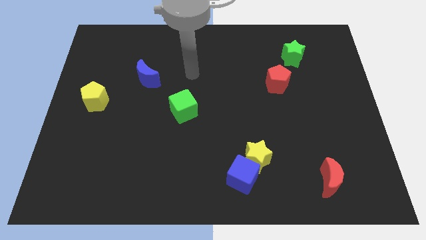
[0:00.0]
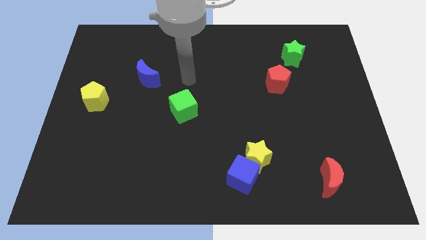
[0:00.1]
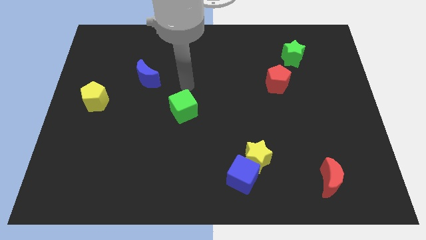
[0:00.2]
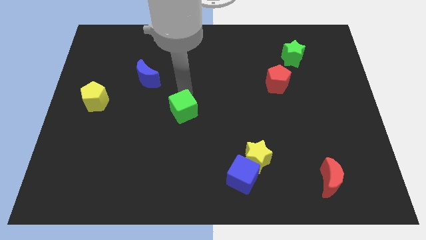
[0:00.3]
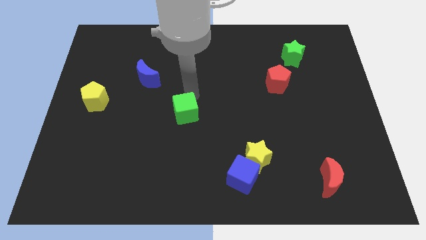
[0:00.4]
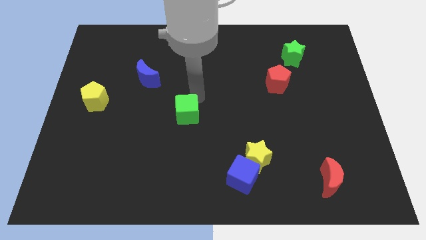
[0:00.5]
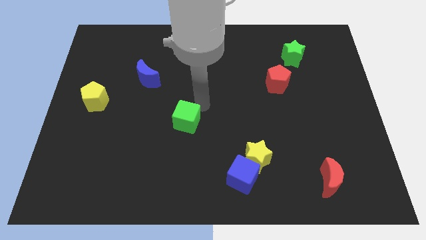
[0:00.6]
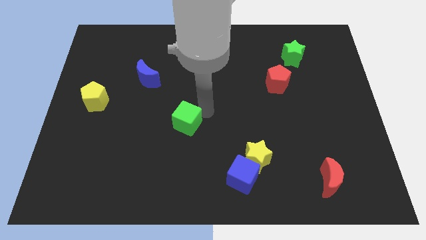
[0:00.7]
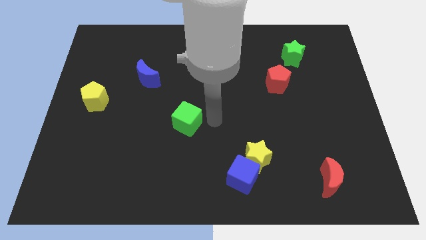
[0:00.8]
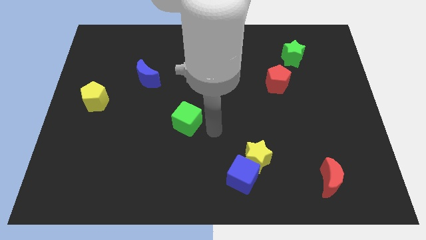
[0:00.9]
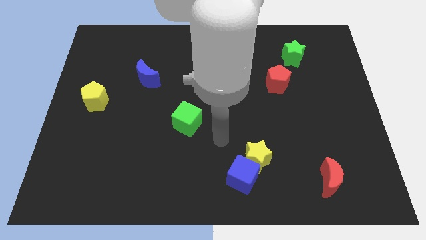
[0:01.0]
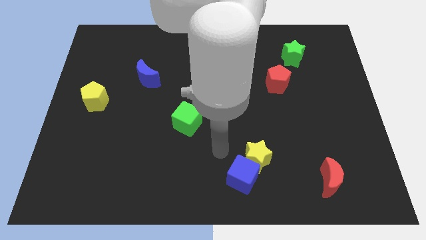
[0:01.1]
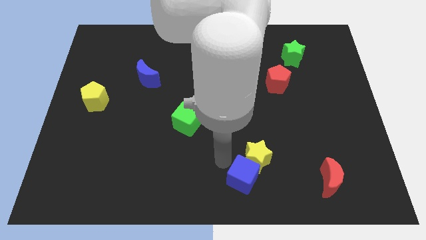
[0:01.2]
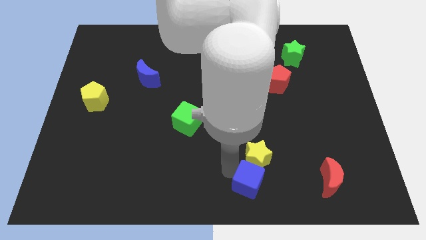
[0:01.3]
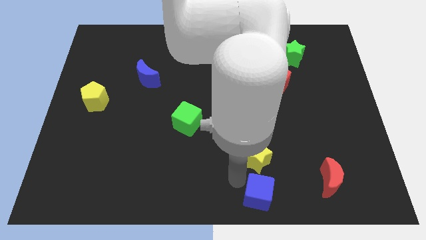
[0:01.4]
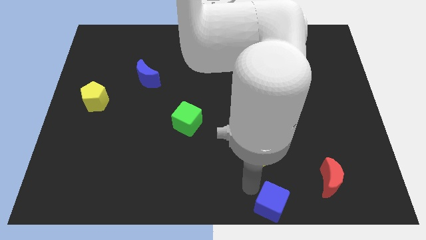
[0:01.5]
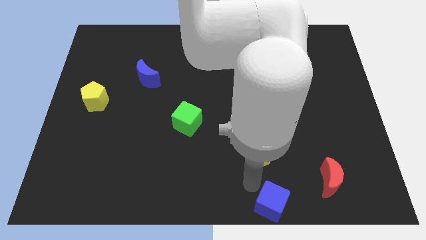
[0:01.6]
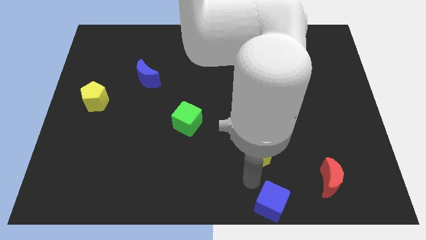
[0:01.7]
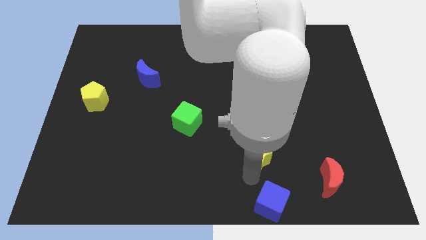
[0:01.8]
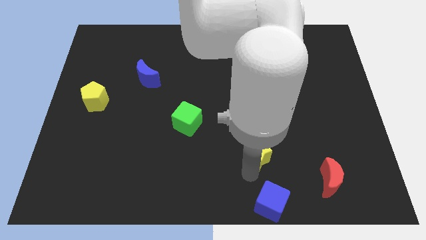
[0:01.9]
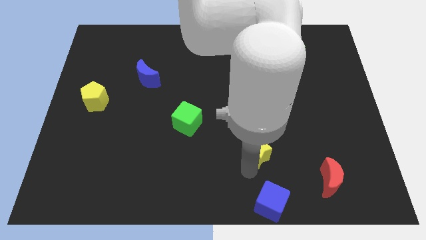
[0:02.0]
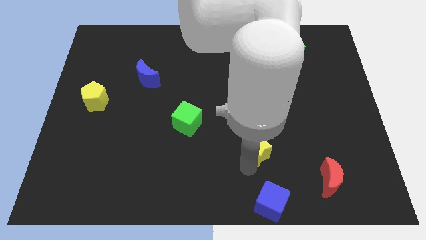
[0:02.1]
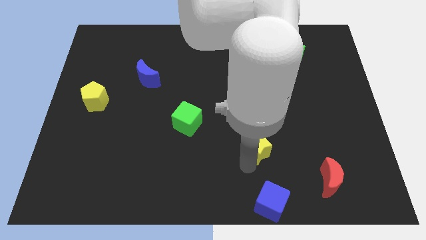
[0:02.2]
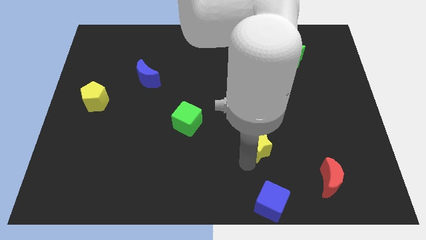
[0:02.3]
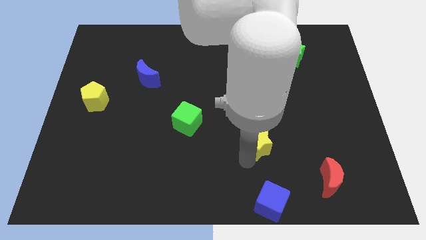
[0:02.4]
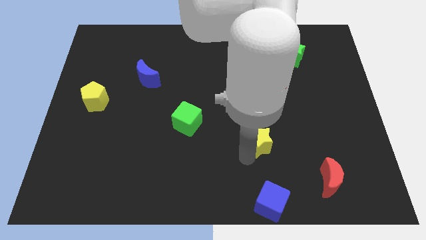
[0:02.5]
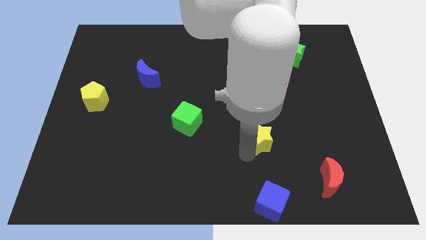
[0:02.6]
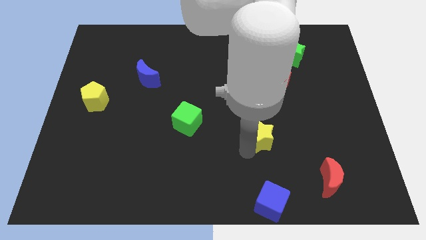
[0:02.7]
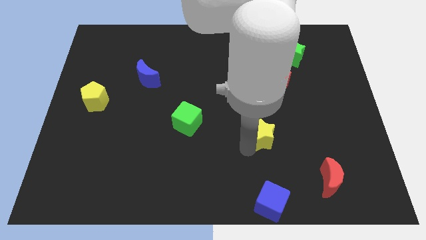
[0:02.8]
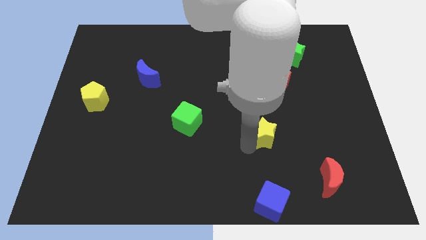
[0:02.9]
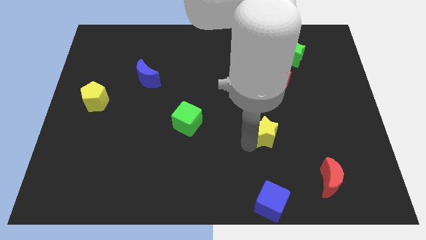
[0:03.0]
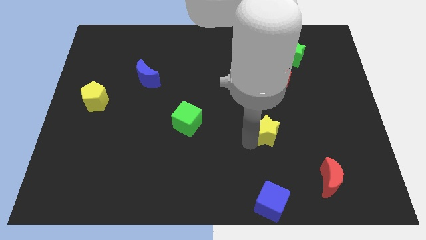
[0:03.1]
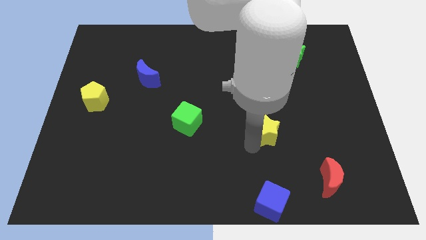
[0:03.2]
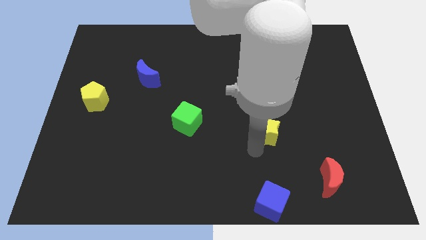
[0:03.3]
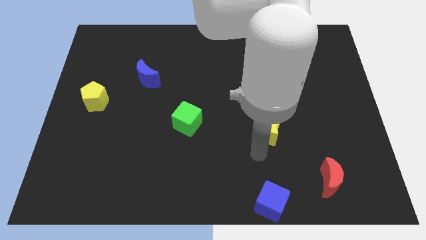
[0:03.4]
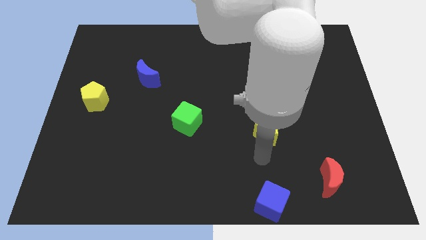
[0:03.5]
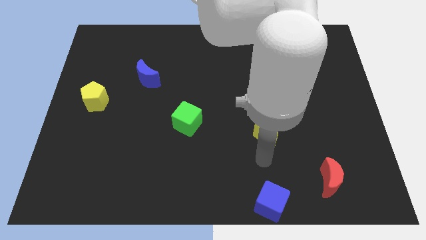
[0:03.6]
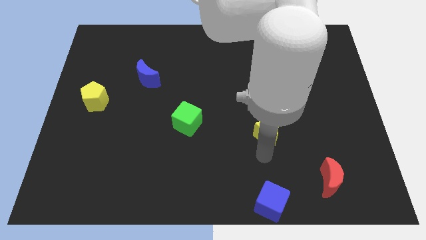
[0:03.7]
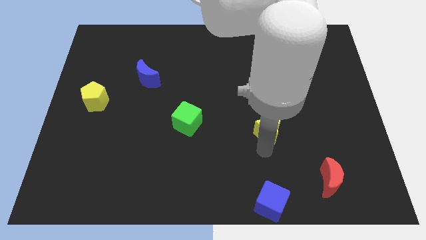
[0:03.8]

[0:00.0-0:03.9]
slightly slide the yellow star upwards

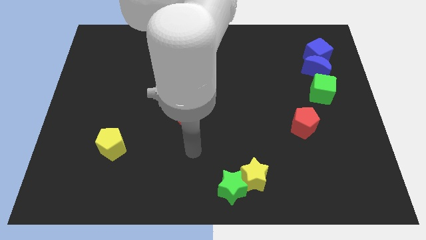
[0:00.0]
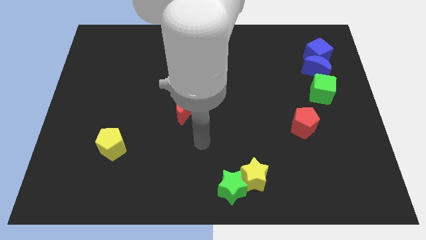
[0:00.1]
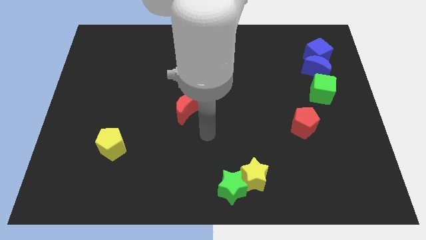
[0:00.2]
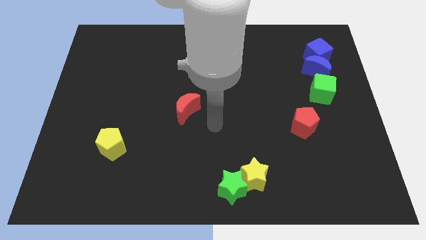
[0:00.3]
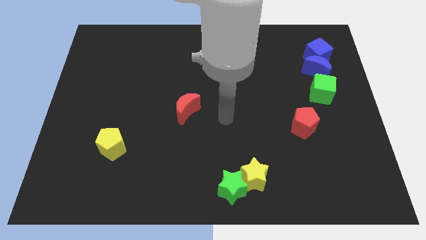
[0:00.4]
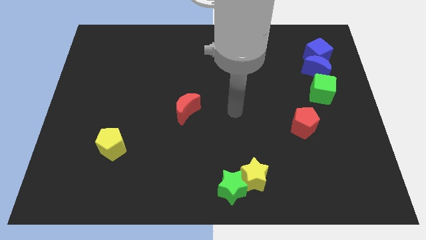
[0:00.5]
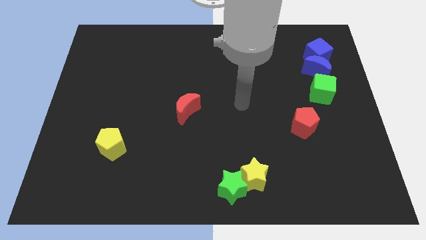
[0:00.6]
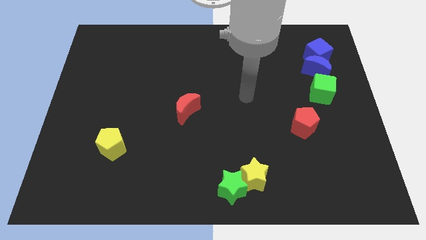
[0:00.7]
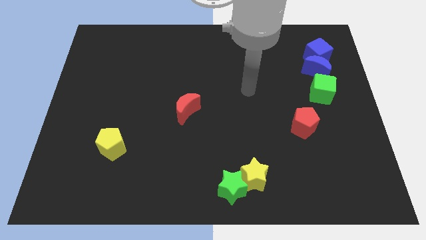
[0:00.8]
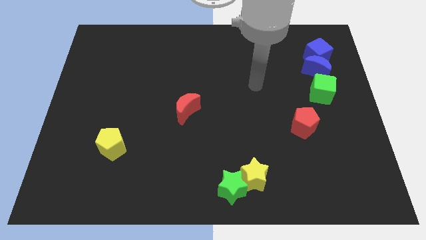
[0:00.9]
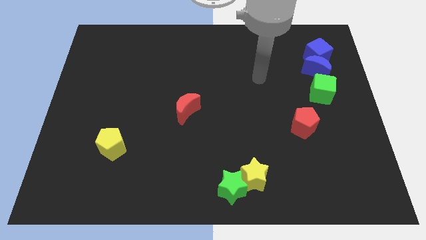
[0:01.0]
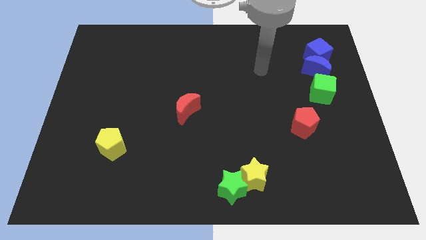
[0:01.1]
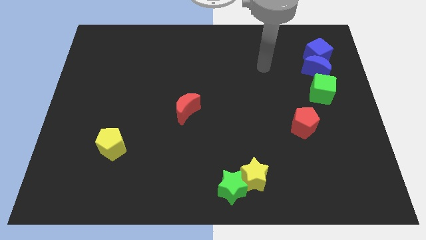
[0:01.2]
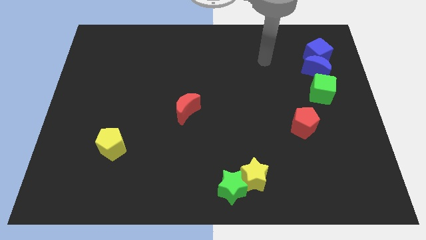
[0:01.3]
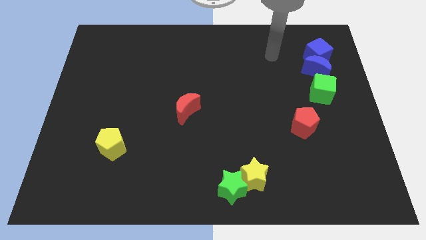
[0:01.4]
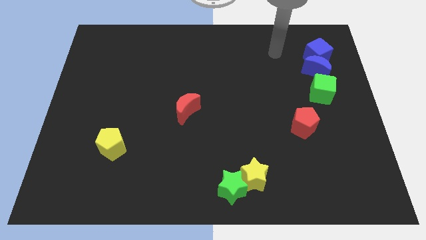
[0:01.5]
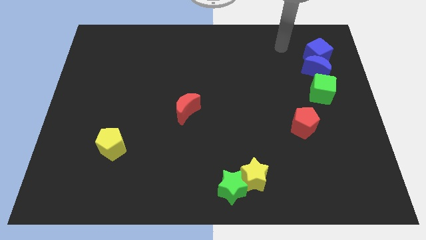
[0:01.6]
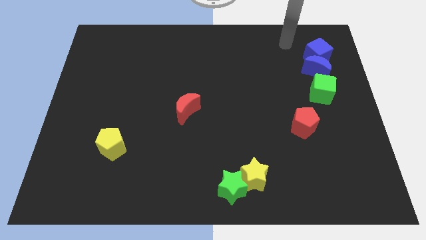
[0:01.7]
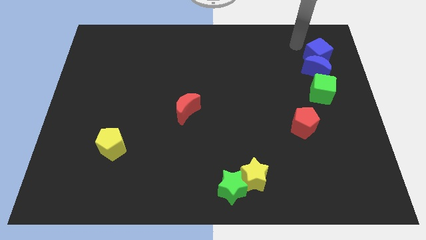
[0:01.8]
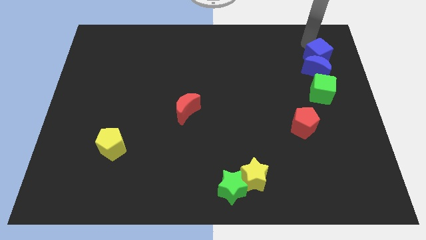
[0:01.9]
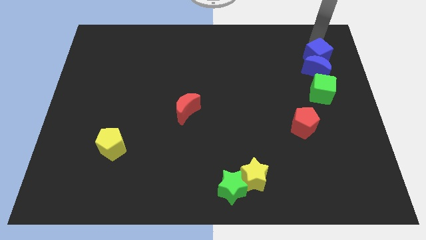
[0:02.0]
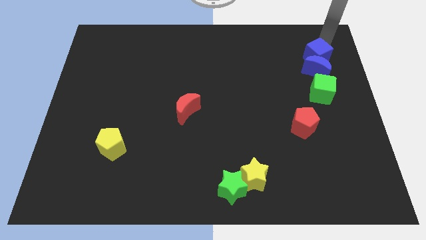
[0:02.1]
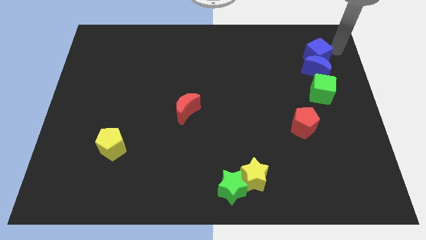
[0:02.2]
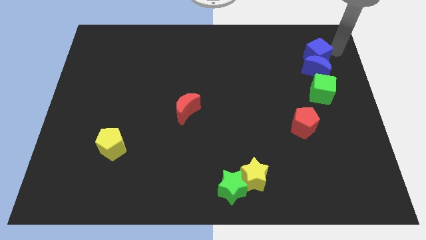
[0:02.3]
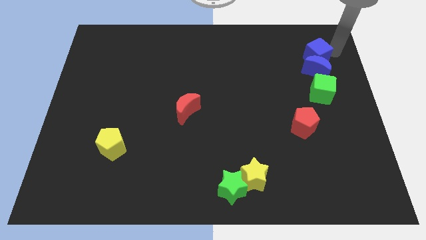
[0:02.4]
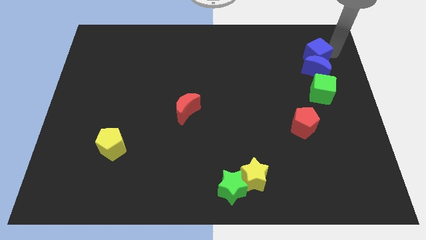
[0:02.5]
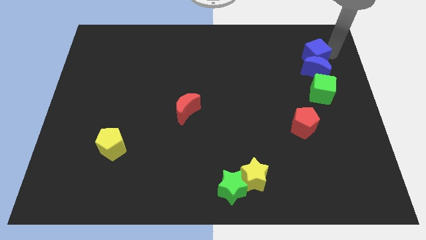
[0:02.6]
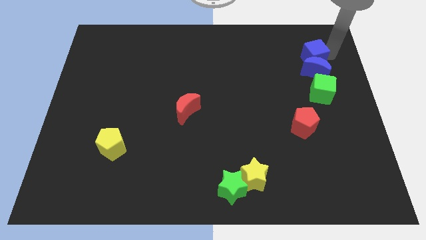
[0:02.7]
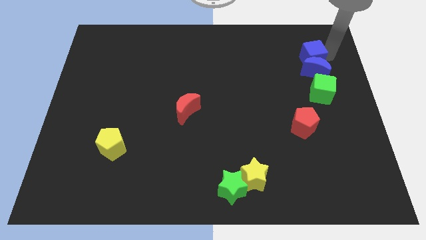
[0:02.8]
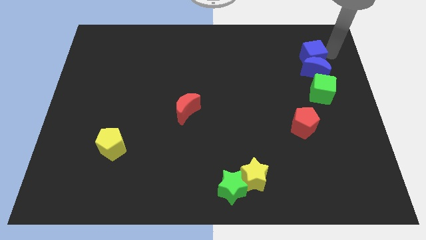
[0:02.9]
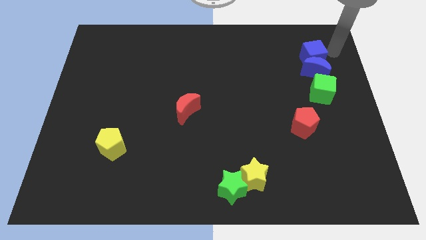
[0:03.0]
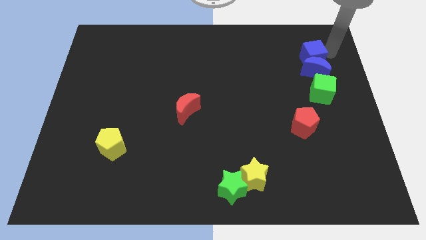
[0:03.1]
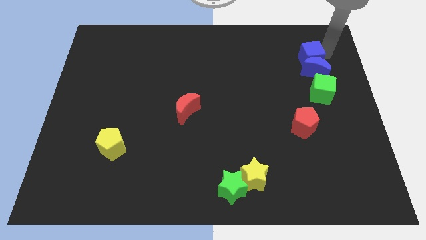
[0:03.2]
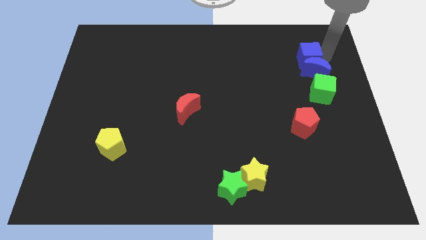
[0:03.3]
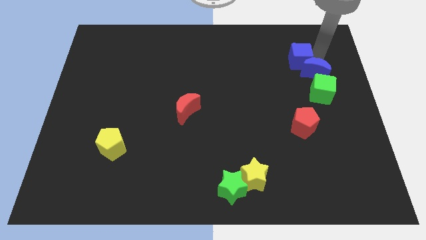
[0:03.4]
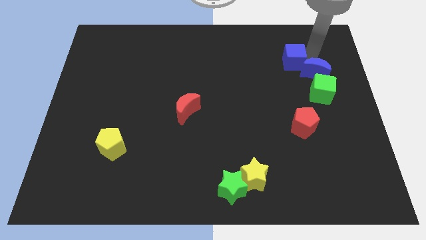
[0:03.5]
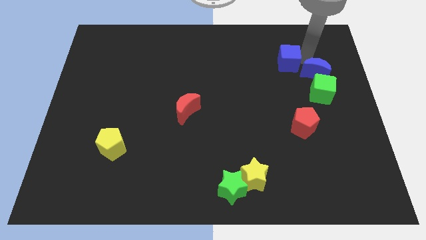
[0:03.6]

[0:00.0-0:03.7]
slightly move the blue cube to the left

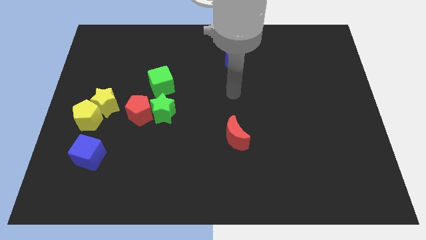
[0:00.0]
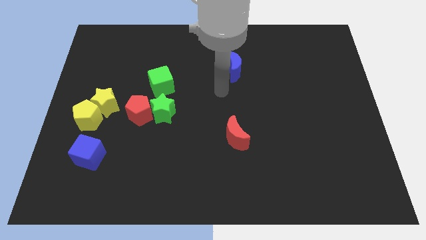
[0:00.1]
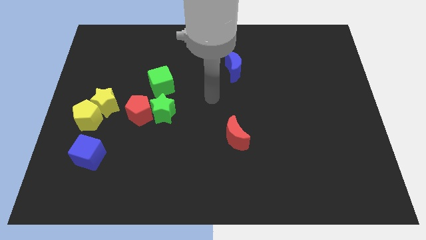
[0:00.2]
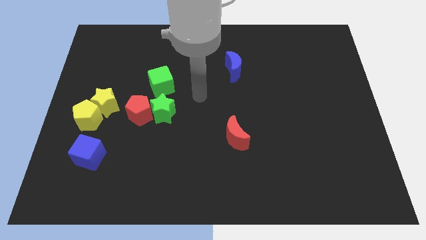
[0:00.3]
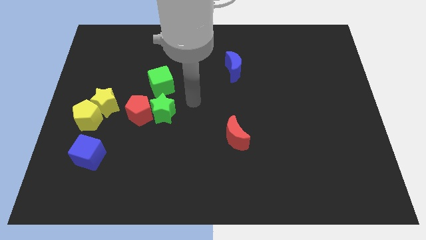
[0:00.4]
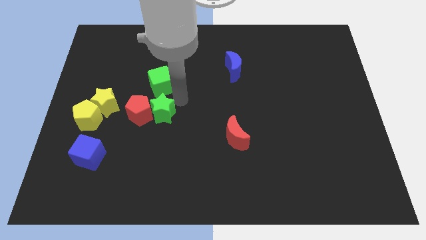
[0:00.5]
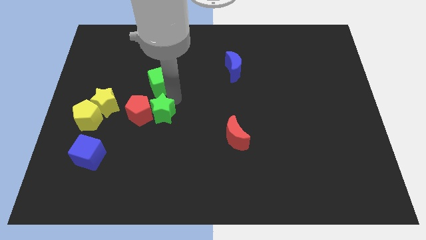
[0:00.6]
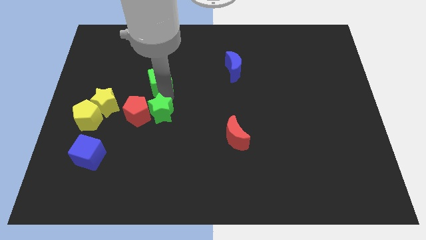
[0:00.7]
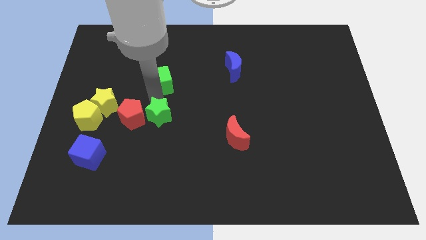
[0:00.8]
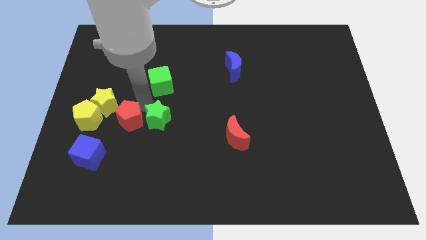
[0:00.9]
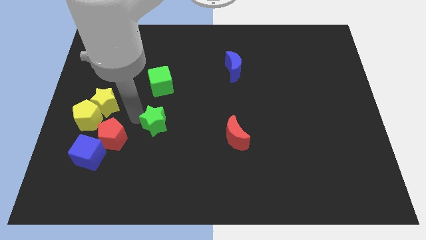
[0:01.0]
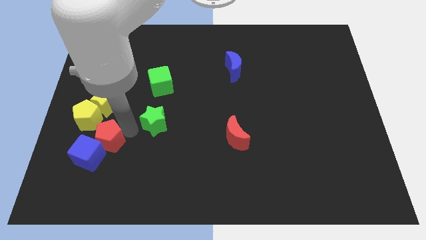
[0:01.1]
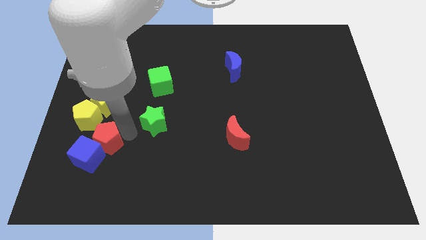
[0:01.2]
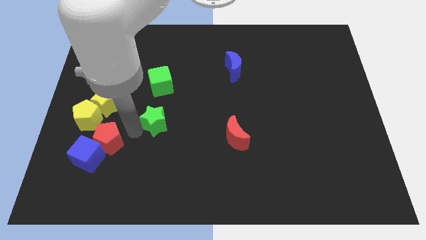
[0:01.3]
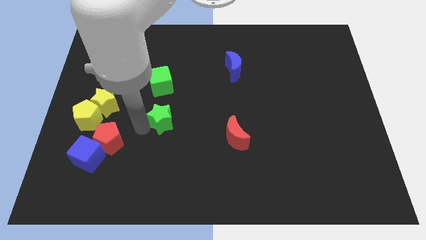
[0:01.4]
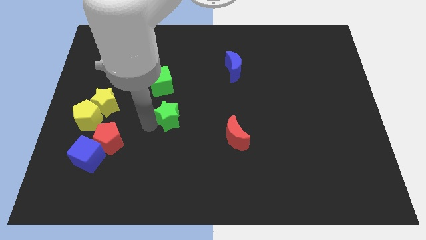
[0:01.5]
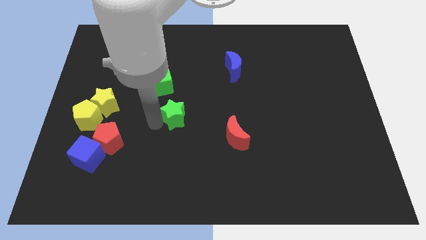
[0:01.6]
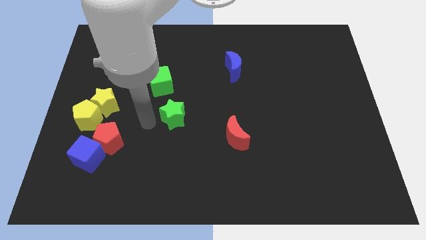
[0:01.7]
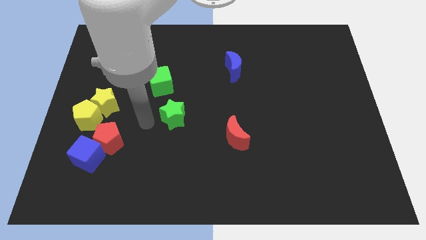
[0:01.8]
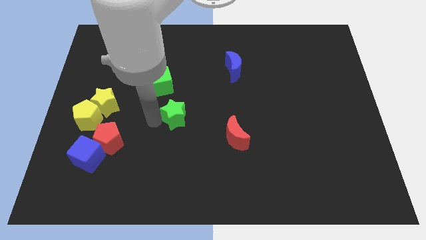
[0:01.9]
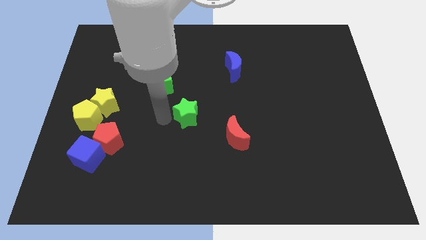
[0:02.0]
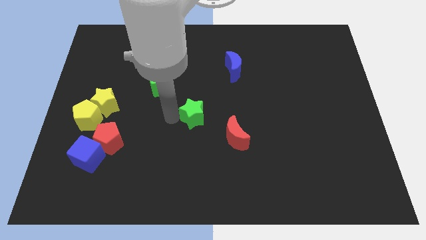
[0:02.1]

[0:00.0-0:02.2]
slightly push the green star to the right
